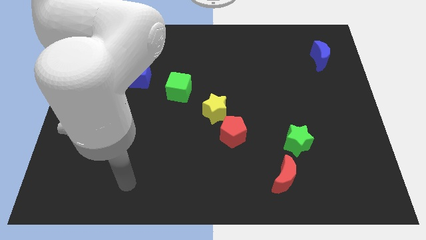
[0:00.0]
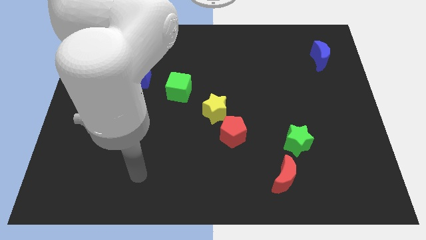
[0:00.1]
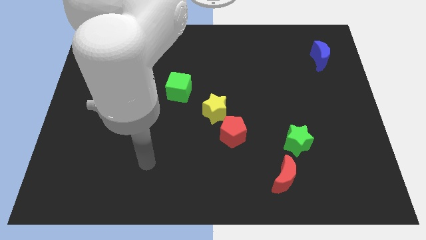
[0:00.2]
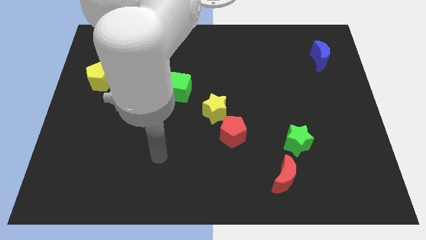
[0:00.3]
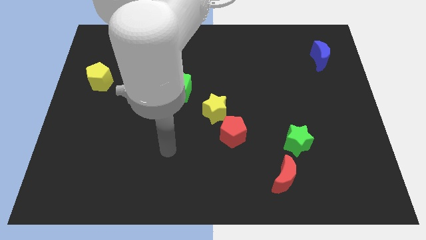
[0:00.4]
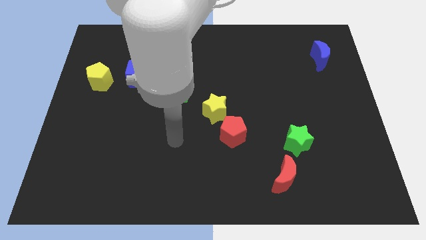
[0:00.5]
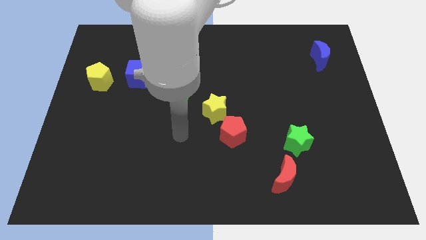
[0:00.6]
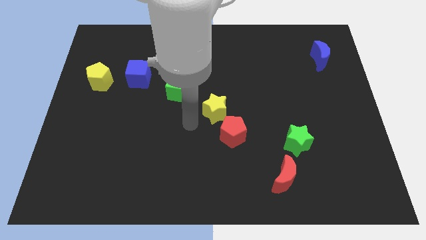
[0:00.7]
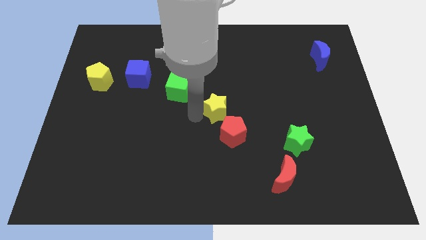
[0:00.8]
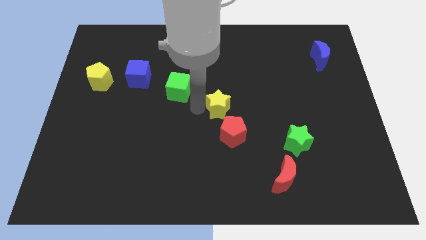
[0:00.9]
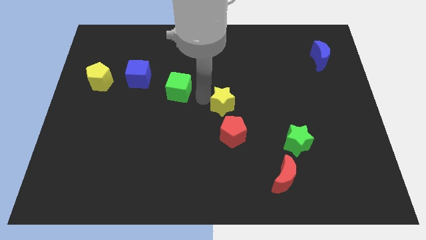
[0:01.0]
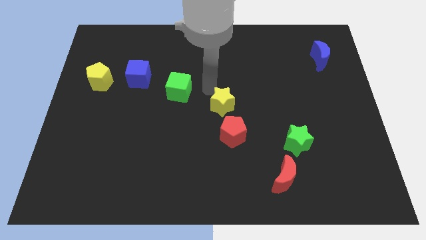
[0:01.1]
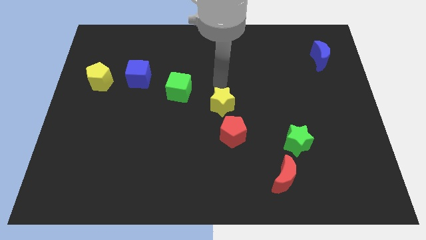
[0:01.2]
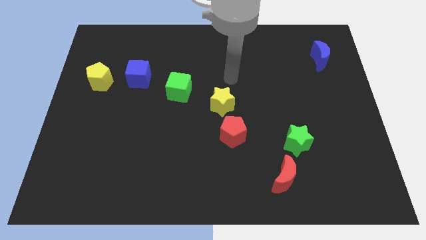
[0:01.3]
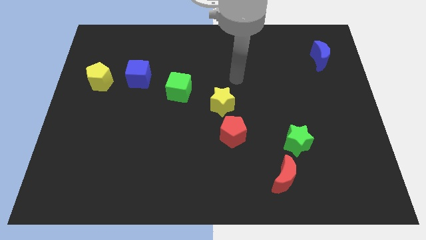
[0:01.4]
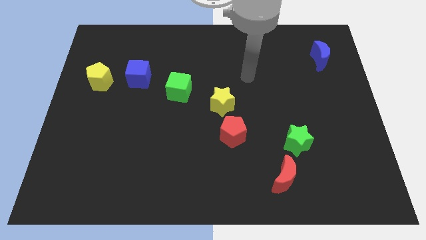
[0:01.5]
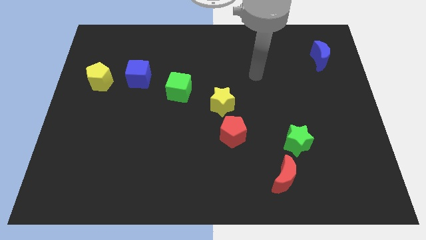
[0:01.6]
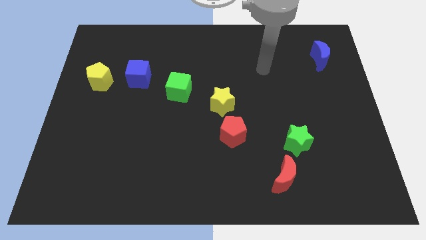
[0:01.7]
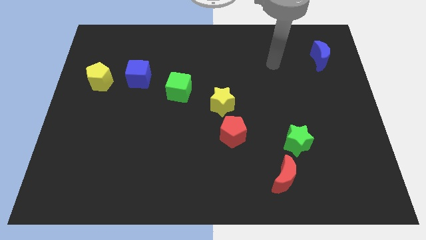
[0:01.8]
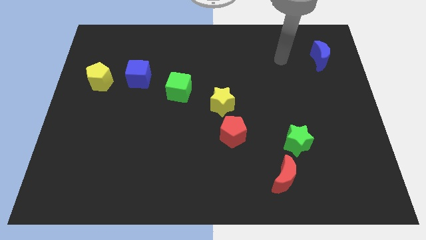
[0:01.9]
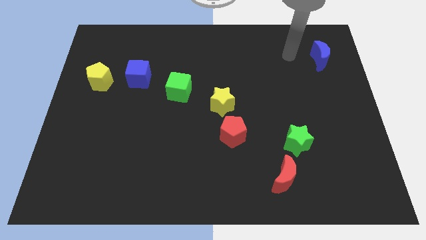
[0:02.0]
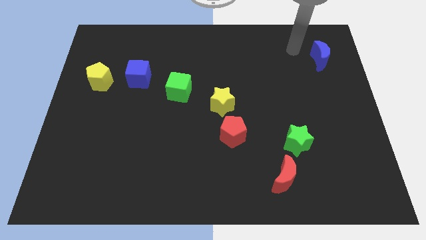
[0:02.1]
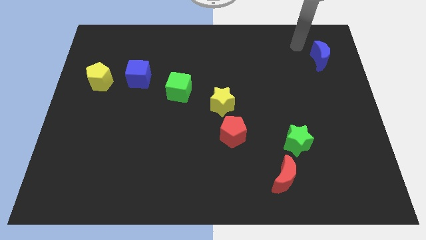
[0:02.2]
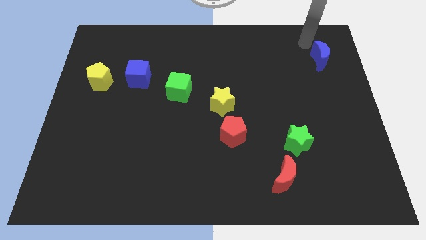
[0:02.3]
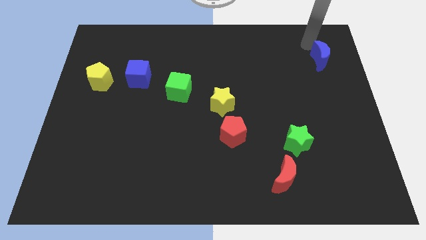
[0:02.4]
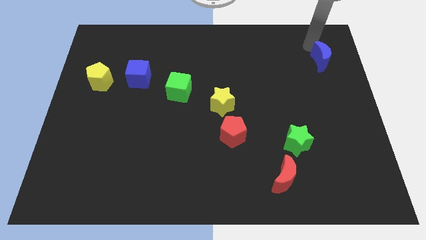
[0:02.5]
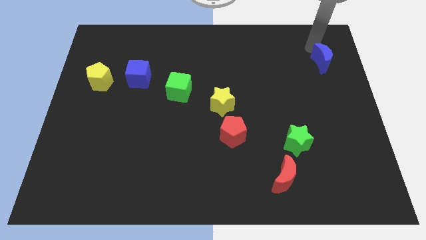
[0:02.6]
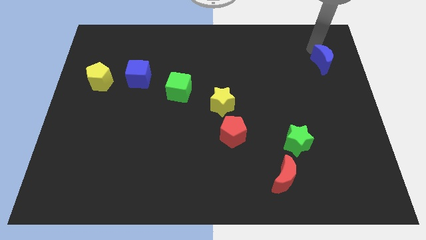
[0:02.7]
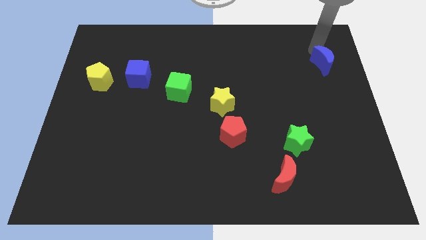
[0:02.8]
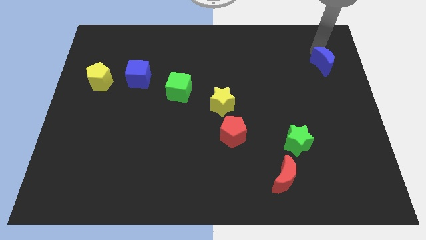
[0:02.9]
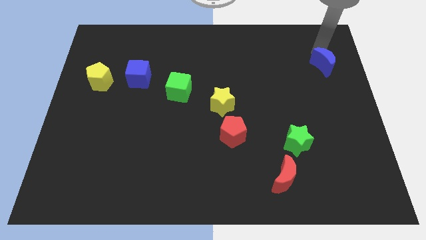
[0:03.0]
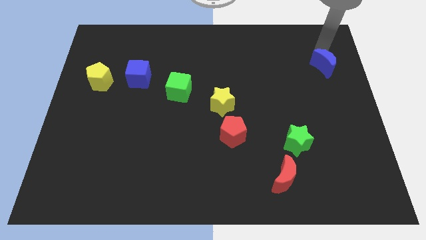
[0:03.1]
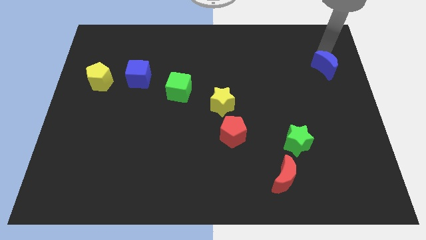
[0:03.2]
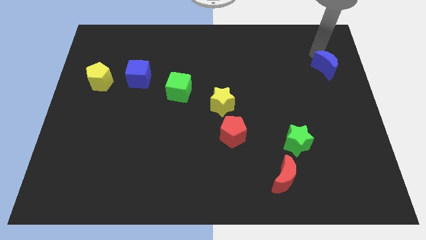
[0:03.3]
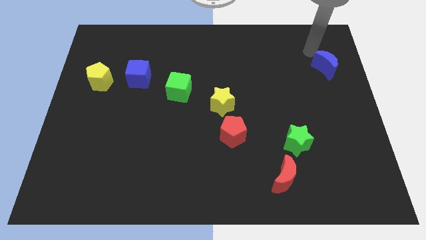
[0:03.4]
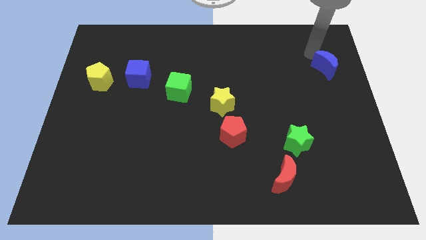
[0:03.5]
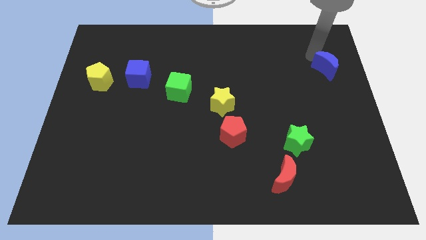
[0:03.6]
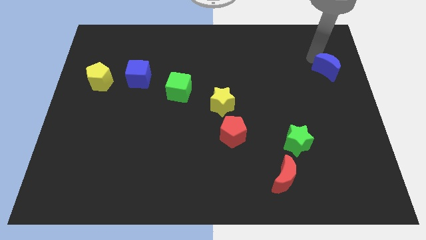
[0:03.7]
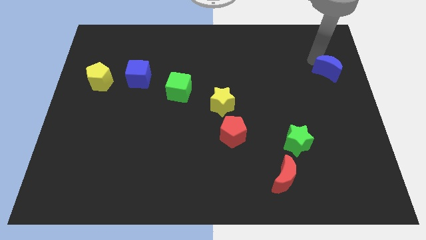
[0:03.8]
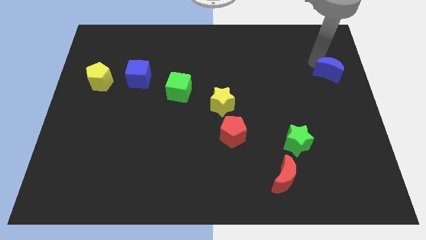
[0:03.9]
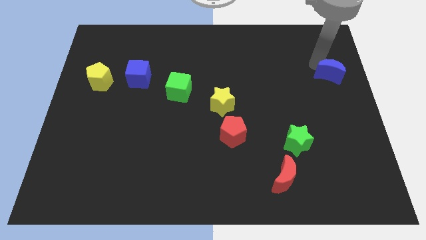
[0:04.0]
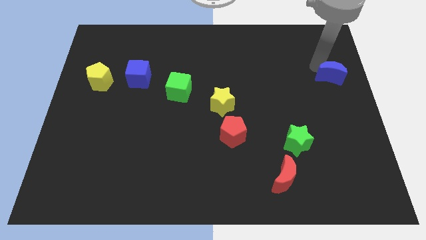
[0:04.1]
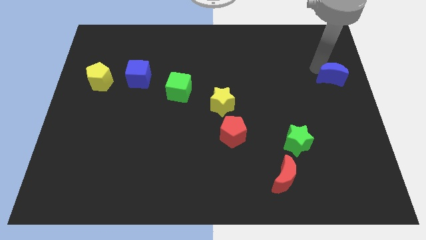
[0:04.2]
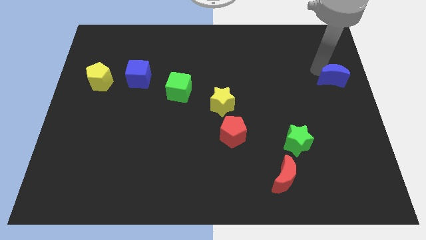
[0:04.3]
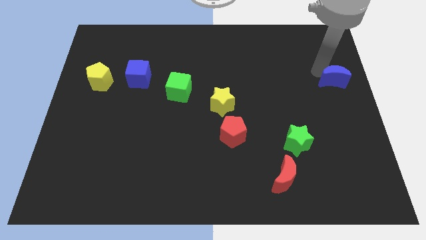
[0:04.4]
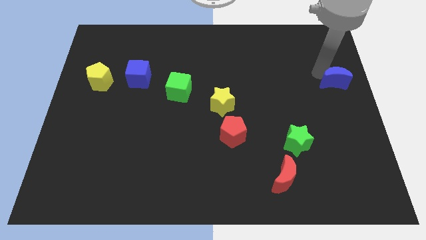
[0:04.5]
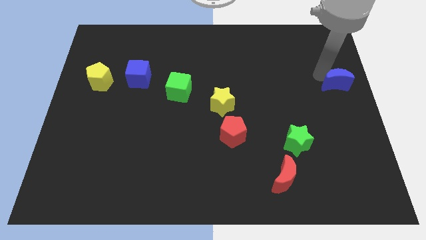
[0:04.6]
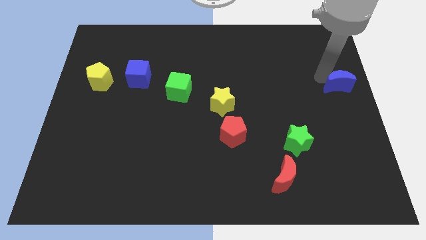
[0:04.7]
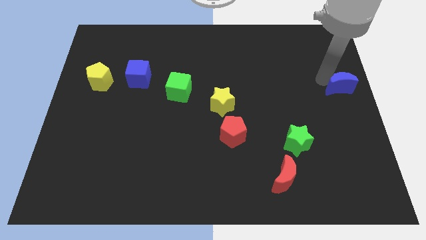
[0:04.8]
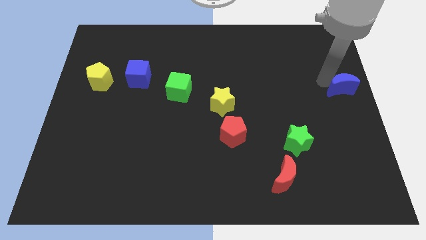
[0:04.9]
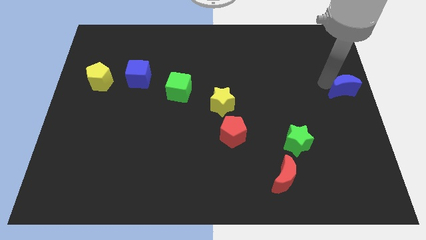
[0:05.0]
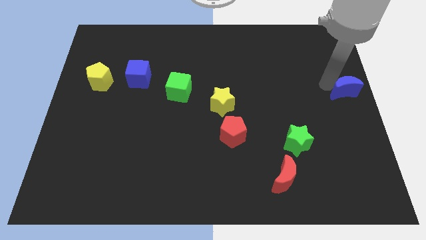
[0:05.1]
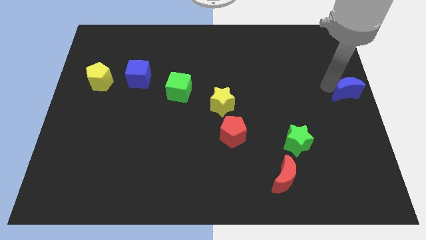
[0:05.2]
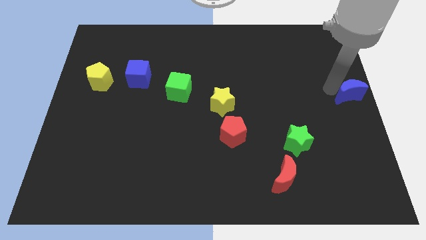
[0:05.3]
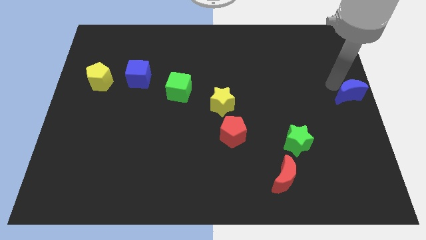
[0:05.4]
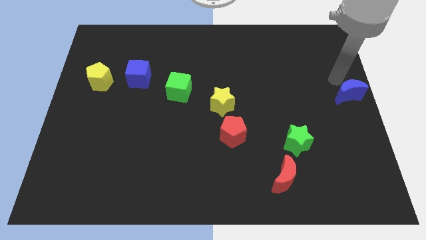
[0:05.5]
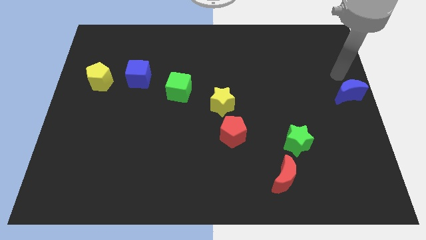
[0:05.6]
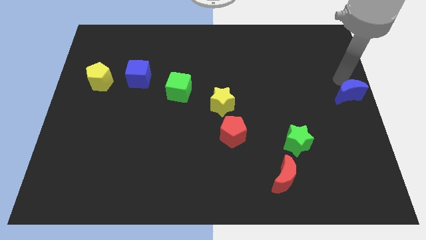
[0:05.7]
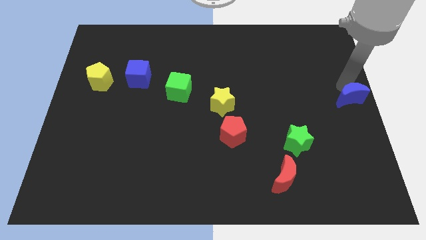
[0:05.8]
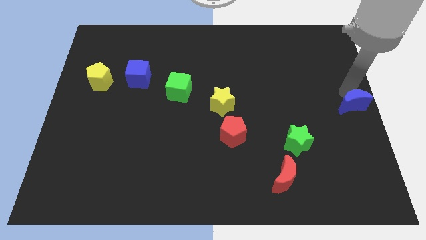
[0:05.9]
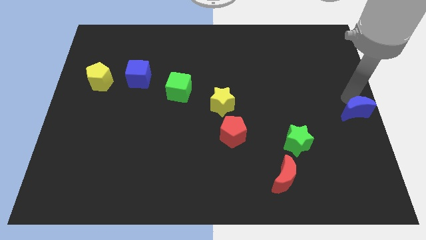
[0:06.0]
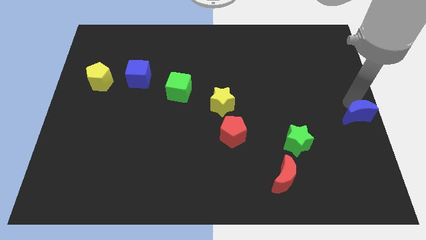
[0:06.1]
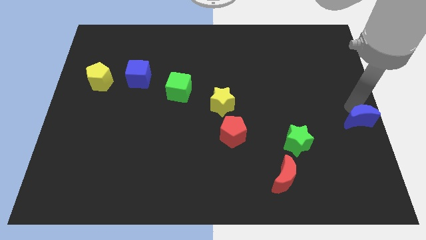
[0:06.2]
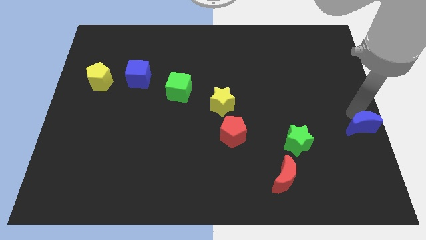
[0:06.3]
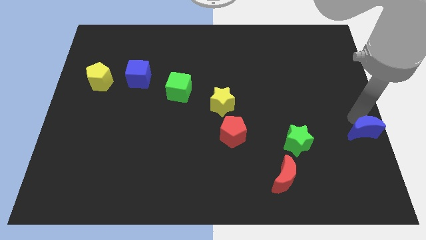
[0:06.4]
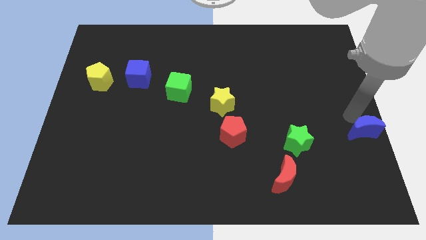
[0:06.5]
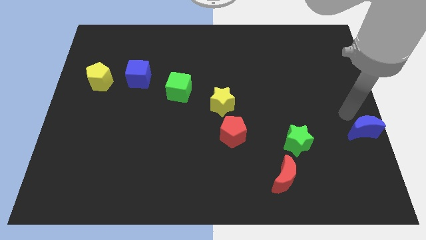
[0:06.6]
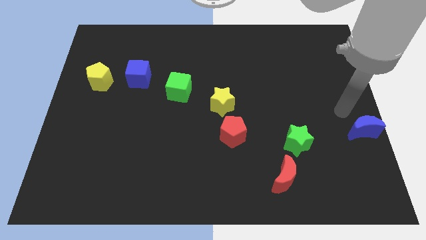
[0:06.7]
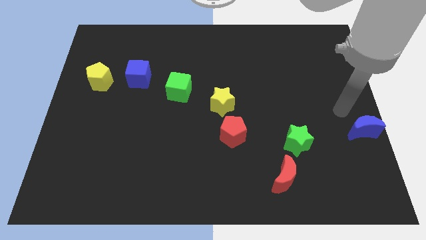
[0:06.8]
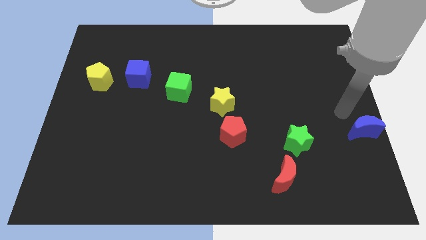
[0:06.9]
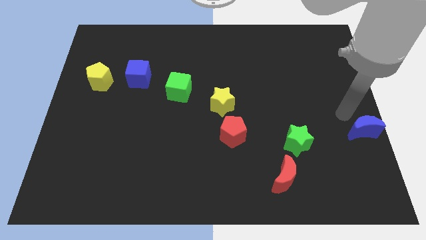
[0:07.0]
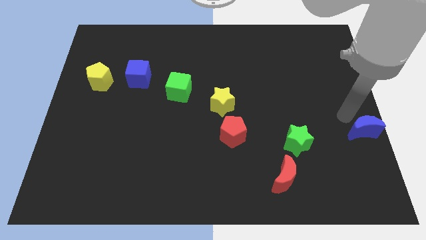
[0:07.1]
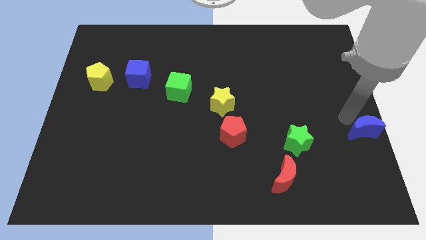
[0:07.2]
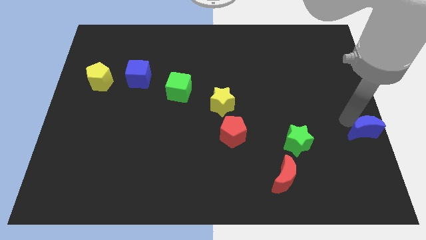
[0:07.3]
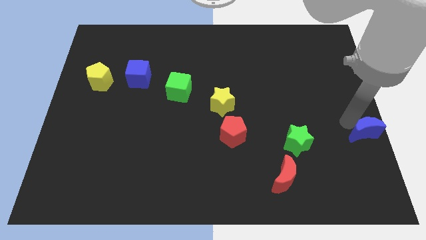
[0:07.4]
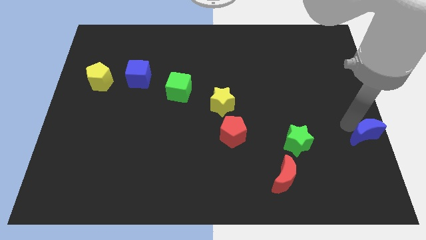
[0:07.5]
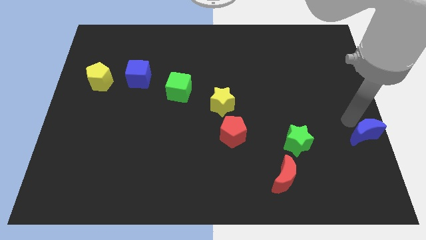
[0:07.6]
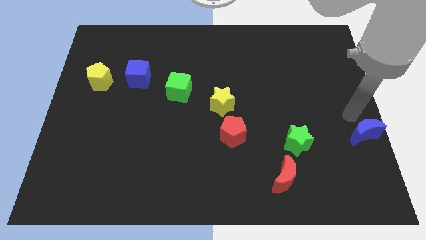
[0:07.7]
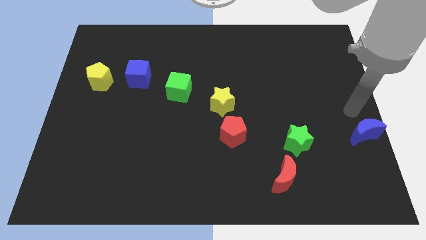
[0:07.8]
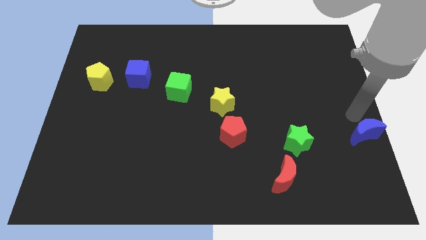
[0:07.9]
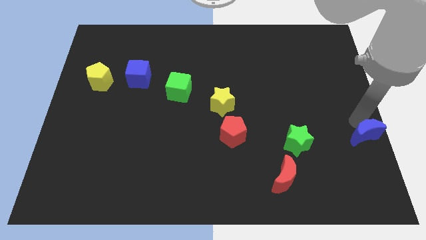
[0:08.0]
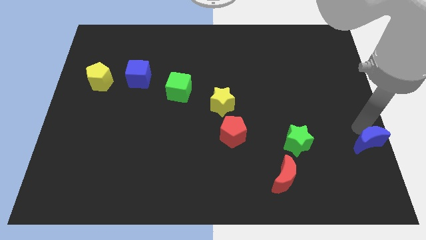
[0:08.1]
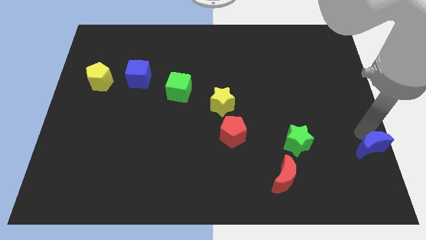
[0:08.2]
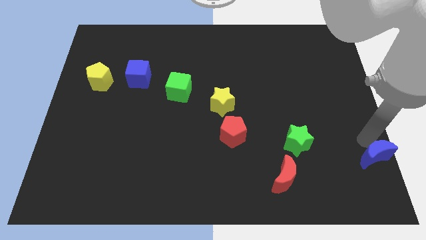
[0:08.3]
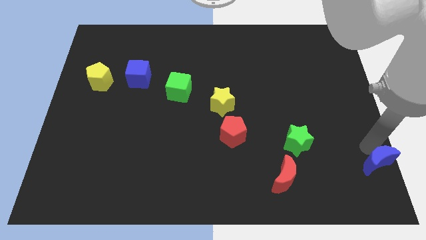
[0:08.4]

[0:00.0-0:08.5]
move the blue moon to the bottom right corner
